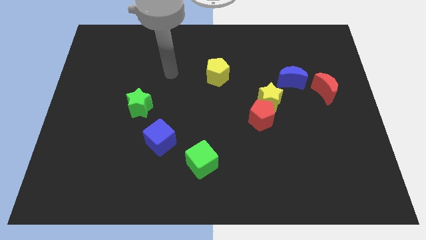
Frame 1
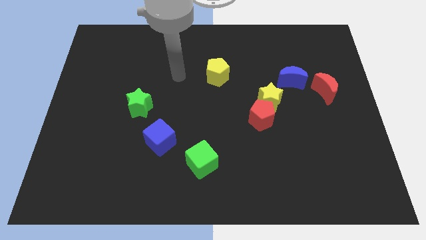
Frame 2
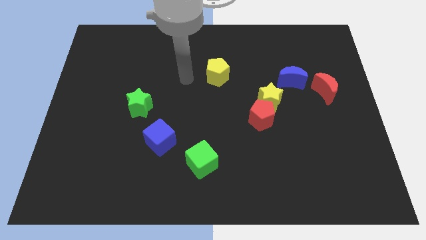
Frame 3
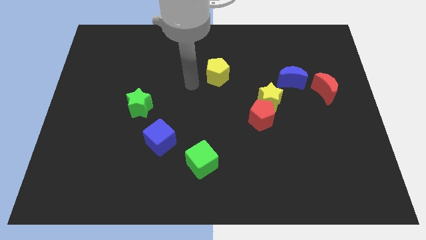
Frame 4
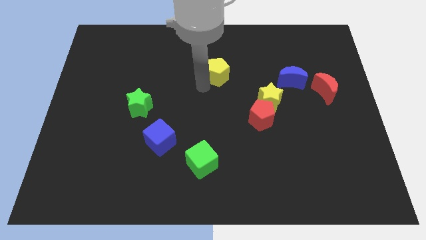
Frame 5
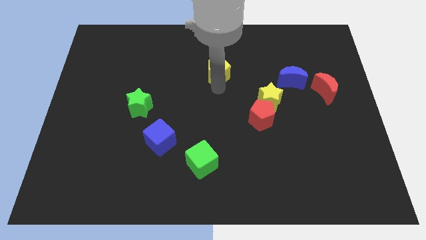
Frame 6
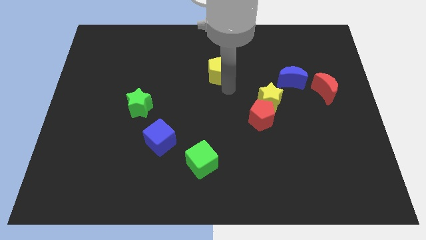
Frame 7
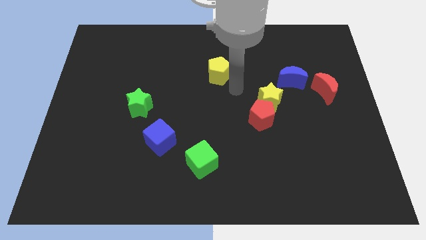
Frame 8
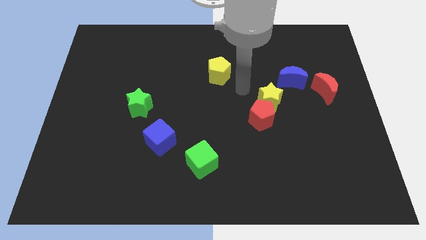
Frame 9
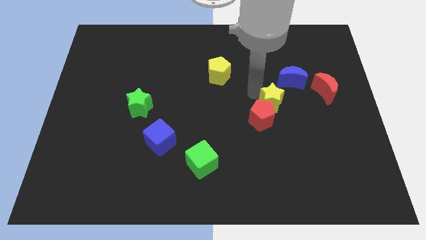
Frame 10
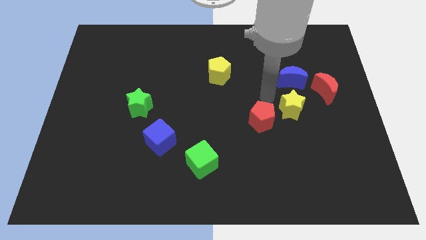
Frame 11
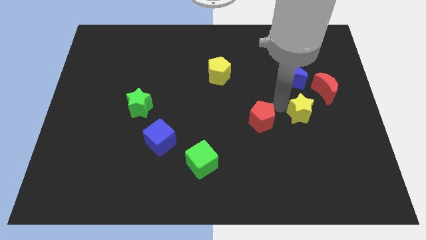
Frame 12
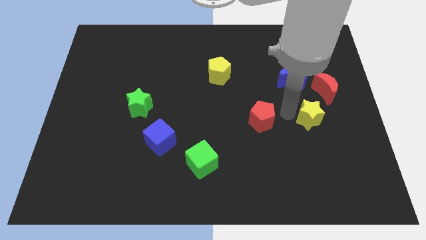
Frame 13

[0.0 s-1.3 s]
pull the red pentagon apart from the yellow star

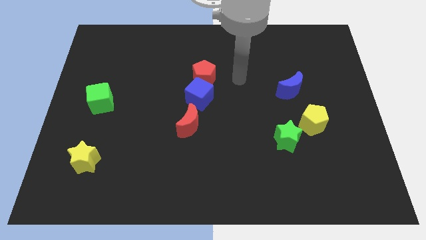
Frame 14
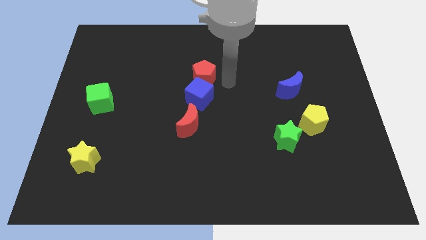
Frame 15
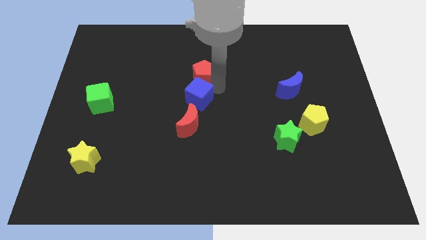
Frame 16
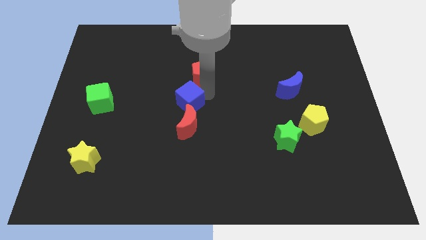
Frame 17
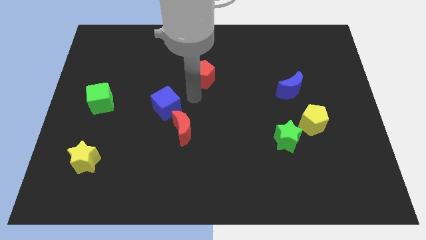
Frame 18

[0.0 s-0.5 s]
move the red pentagon away from the blue cube

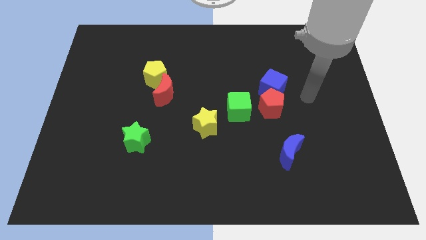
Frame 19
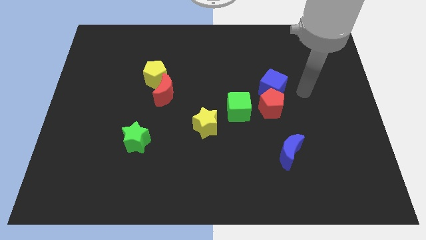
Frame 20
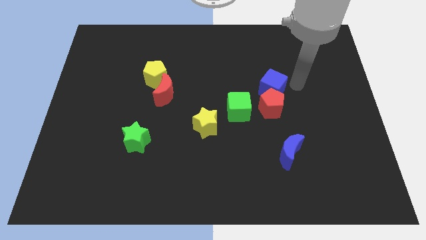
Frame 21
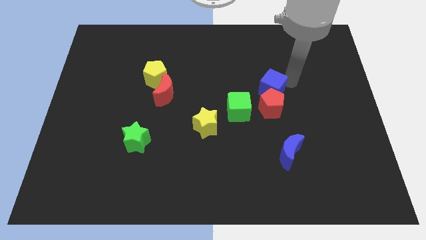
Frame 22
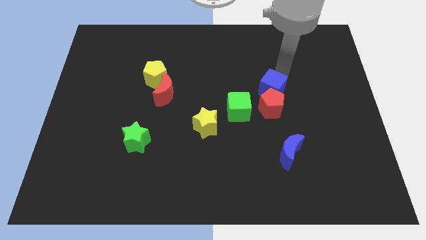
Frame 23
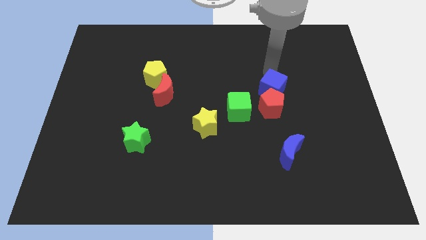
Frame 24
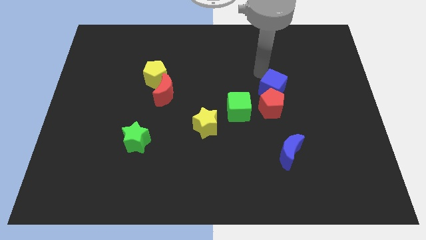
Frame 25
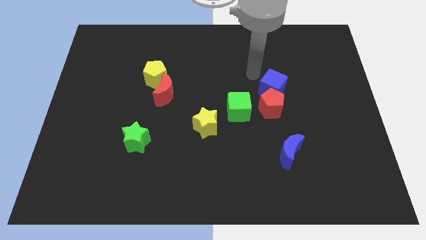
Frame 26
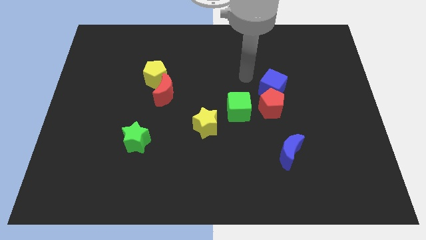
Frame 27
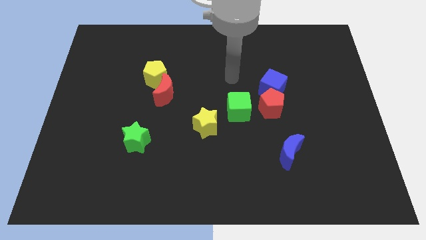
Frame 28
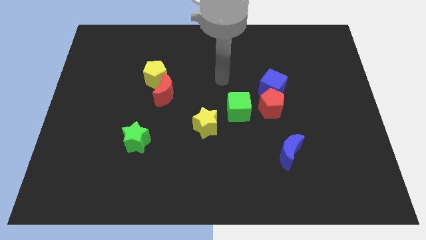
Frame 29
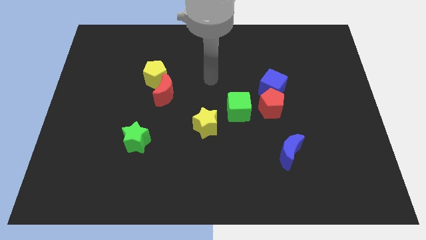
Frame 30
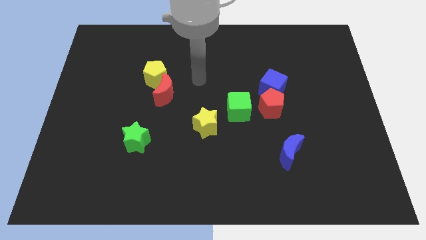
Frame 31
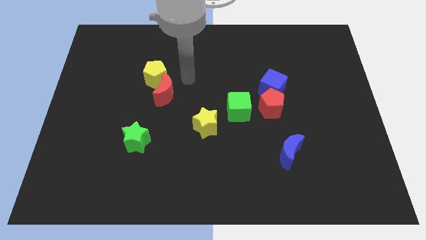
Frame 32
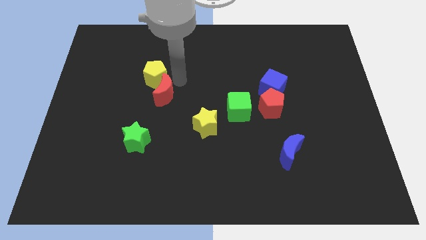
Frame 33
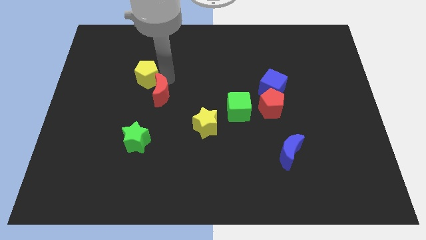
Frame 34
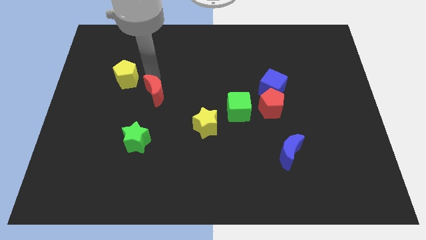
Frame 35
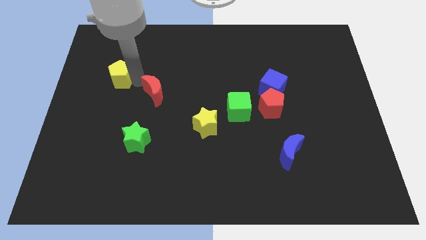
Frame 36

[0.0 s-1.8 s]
pull the red moon apart from the yellow pentagon

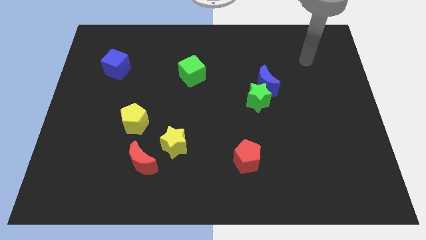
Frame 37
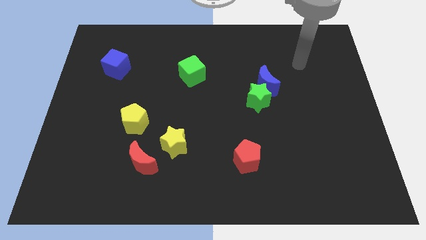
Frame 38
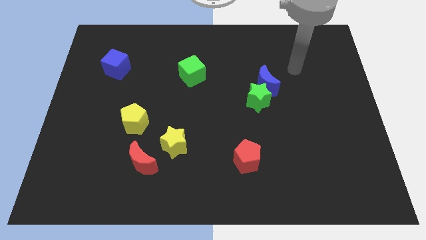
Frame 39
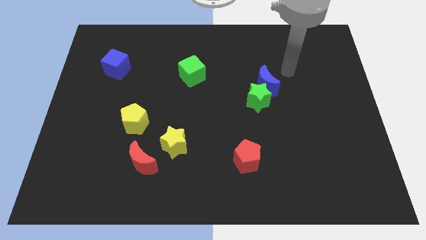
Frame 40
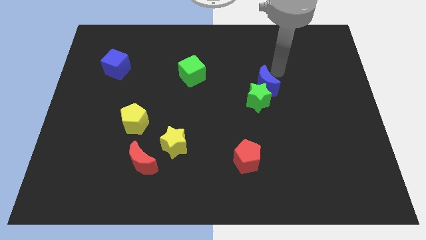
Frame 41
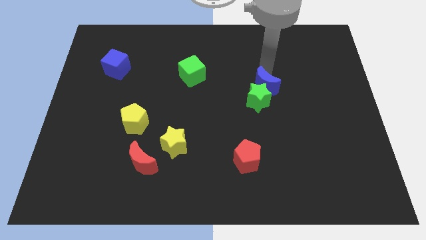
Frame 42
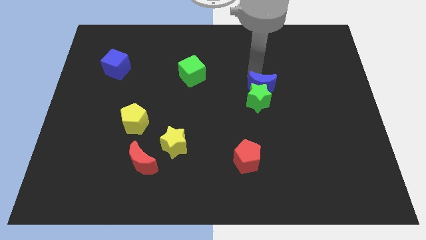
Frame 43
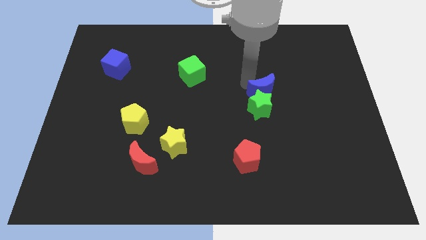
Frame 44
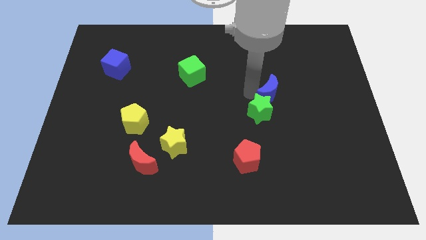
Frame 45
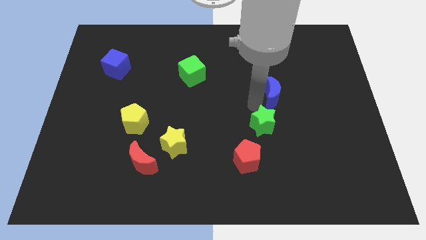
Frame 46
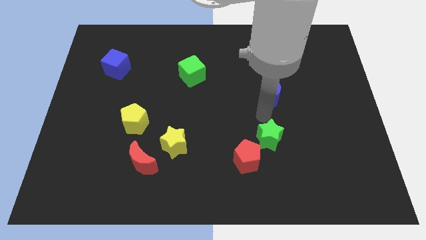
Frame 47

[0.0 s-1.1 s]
pull the blue moon apart from the green star

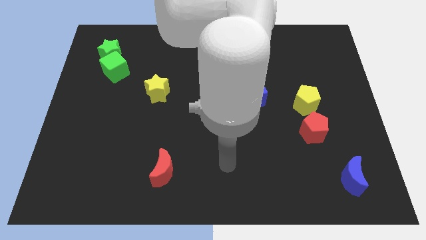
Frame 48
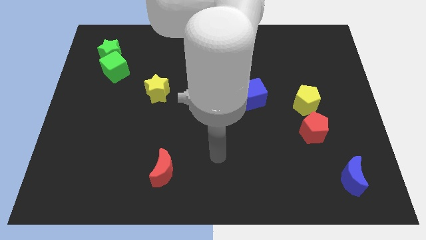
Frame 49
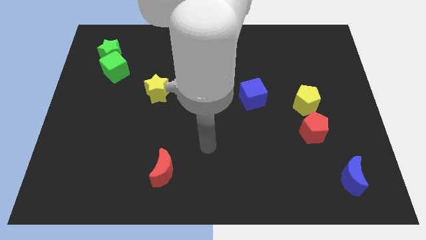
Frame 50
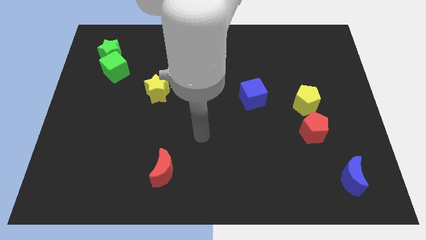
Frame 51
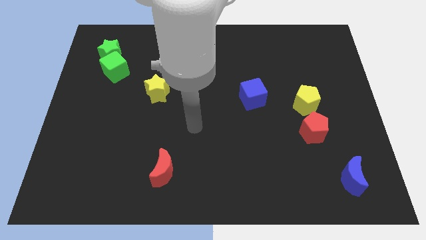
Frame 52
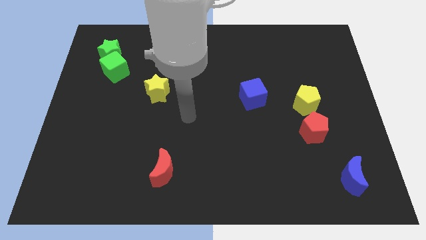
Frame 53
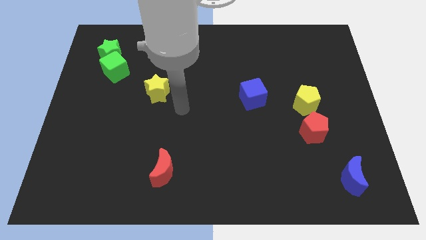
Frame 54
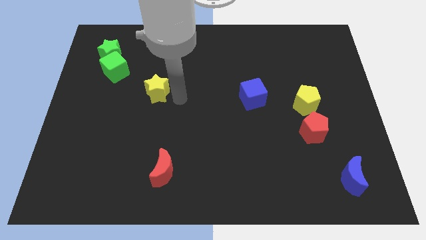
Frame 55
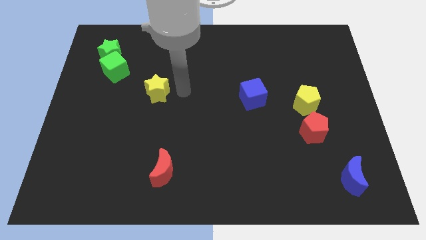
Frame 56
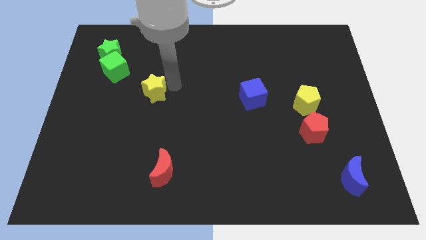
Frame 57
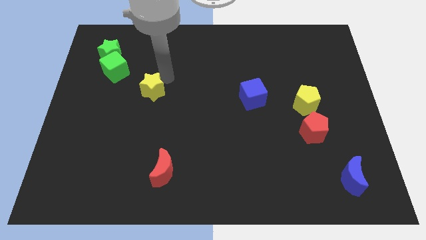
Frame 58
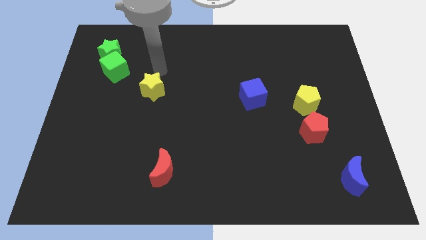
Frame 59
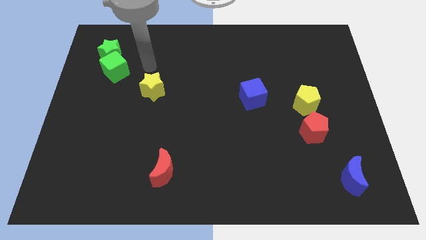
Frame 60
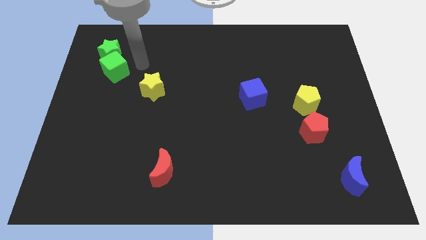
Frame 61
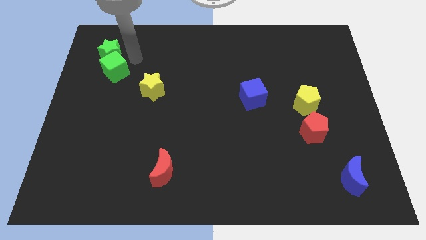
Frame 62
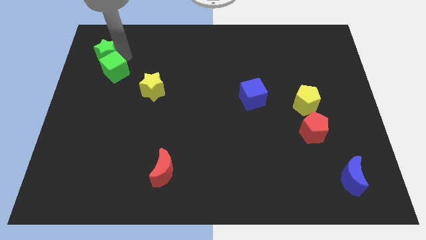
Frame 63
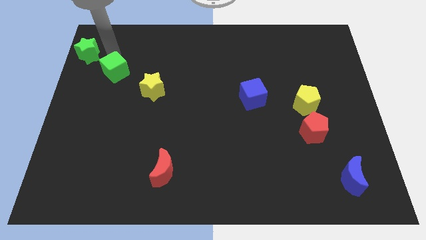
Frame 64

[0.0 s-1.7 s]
separate the green cube from the green star

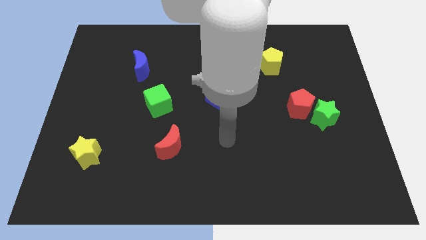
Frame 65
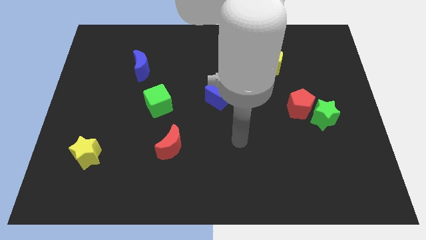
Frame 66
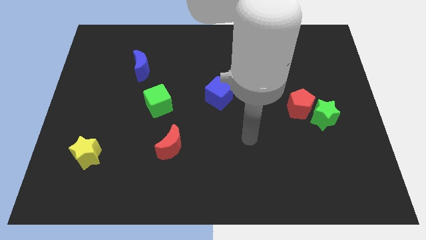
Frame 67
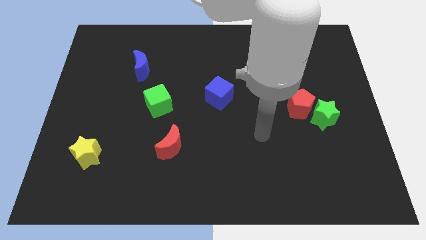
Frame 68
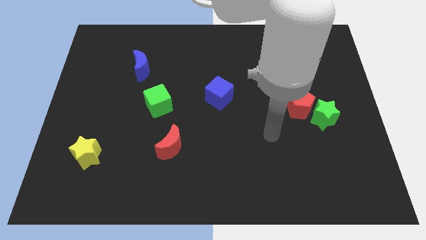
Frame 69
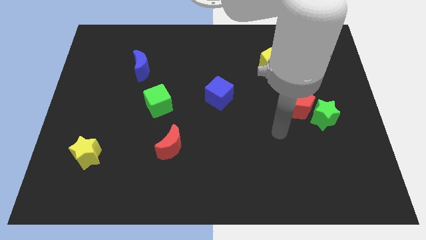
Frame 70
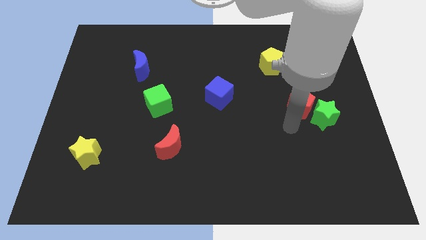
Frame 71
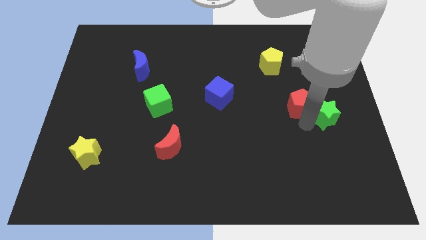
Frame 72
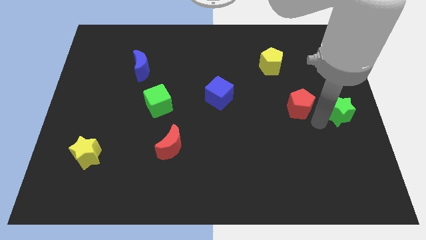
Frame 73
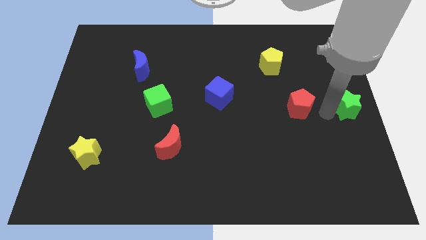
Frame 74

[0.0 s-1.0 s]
move the red pentagon away from the green star

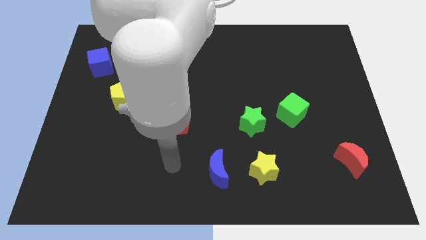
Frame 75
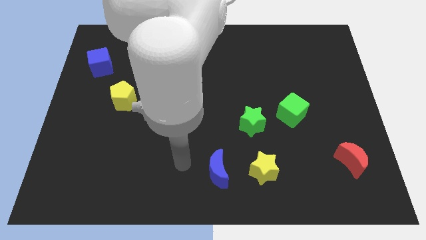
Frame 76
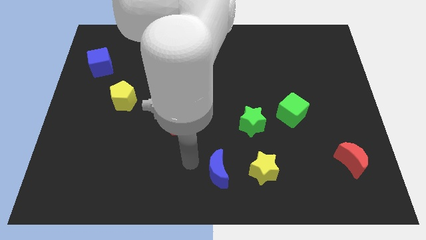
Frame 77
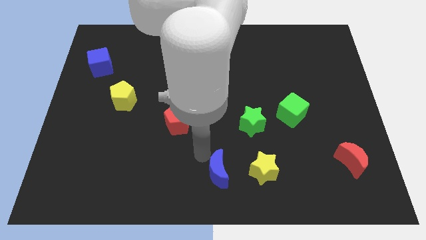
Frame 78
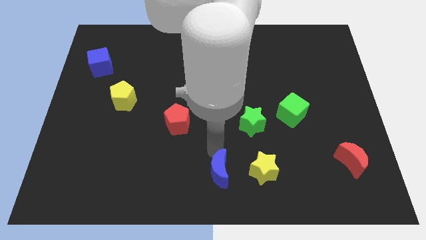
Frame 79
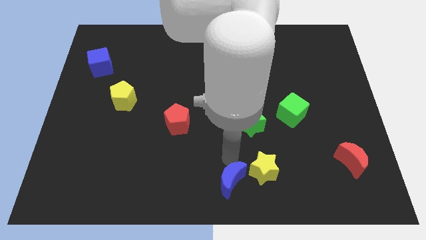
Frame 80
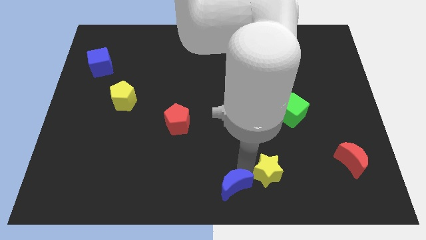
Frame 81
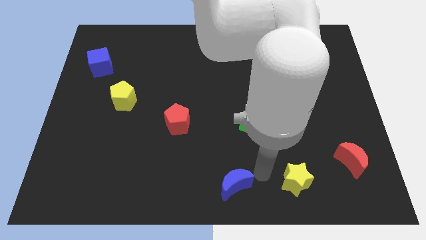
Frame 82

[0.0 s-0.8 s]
move the blue moon away from the yellow star

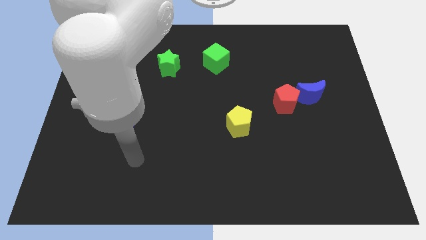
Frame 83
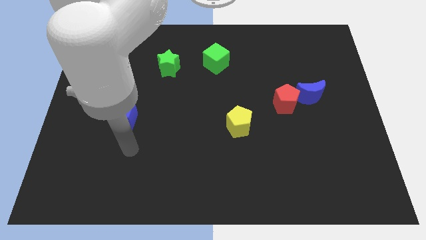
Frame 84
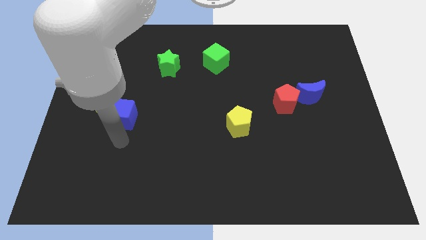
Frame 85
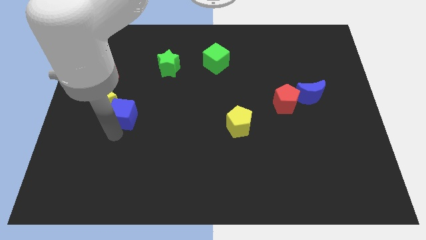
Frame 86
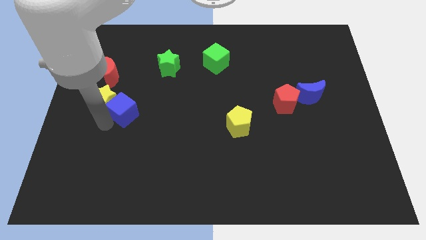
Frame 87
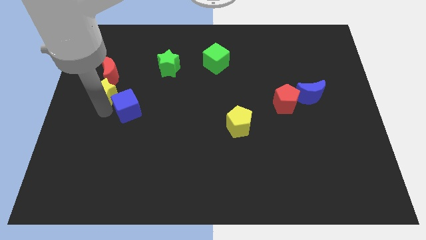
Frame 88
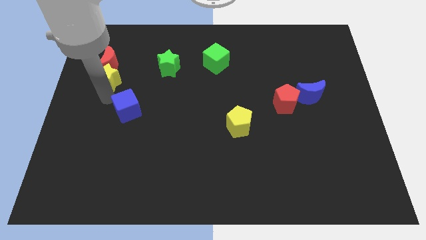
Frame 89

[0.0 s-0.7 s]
separate the blue cube from the yellow star

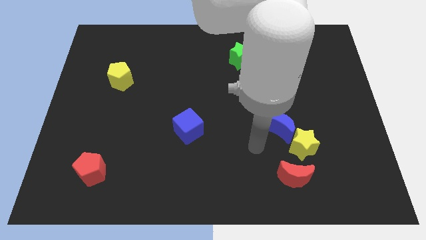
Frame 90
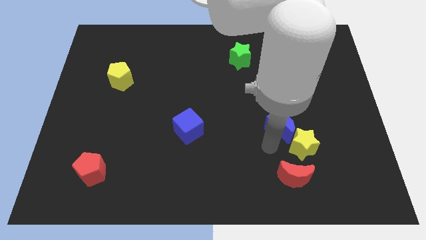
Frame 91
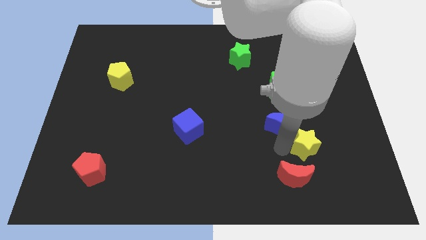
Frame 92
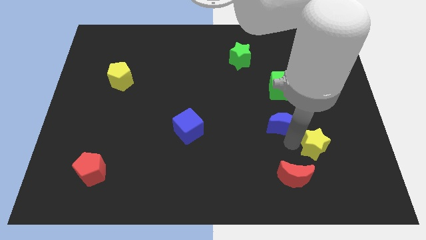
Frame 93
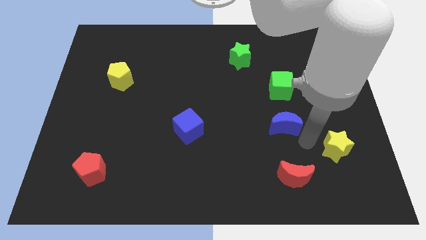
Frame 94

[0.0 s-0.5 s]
pull the blue moon apart from the yellow star
